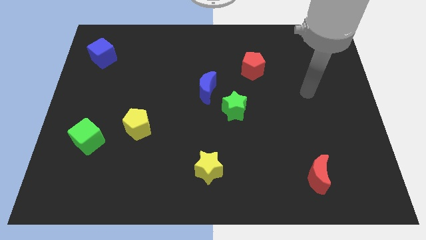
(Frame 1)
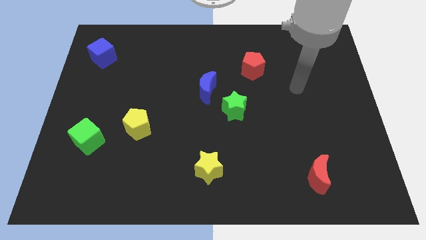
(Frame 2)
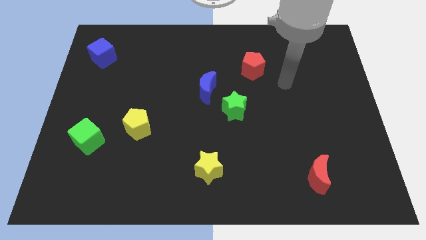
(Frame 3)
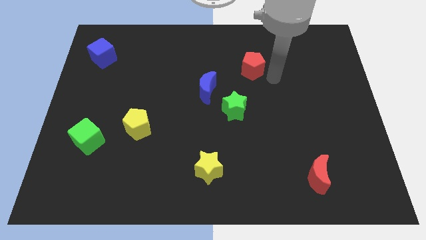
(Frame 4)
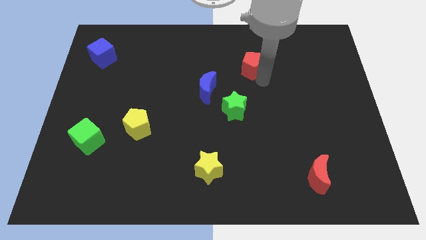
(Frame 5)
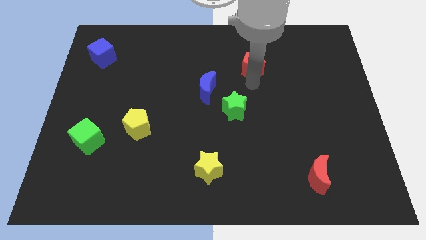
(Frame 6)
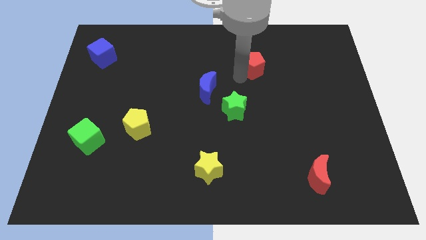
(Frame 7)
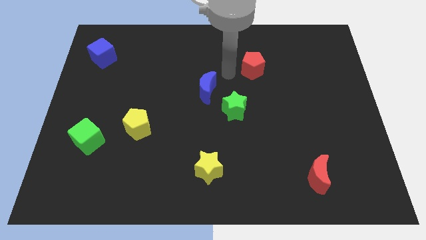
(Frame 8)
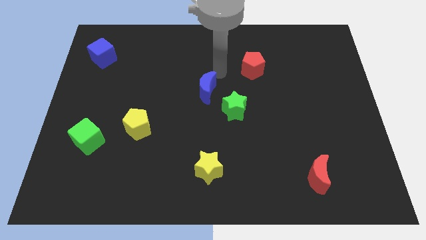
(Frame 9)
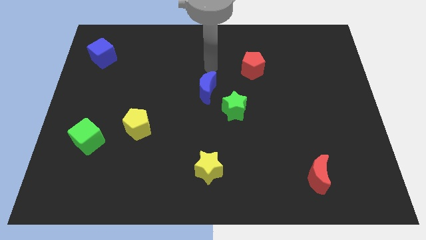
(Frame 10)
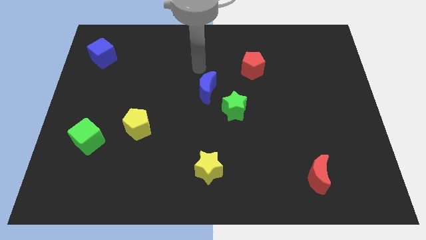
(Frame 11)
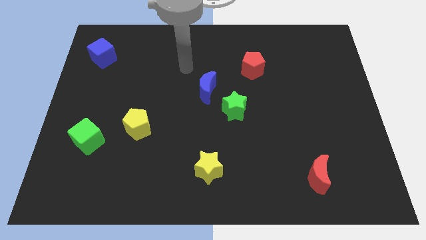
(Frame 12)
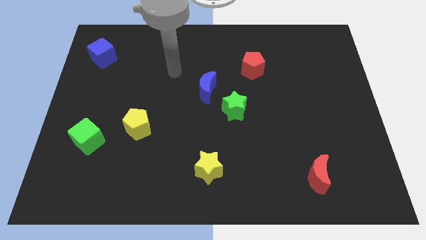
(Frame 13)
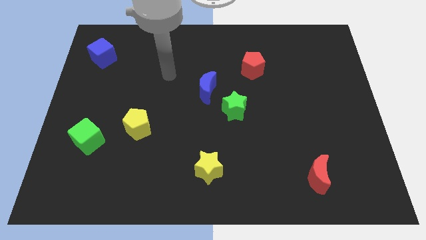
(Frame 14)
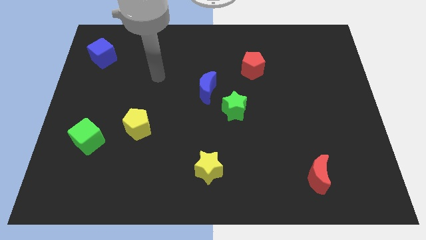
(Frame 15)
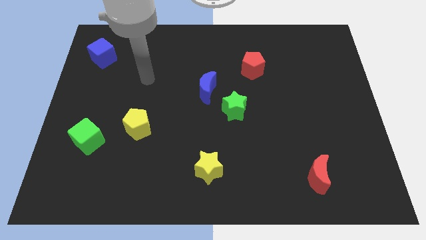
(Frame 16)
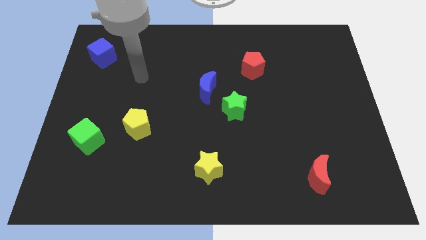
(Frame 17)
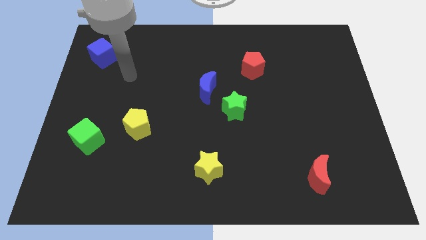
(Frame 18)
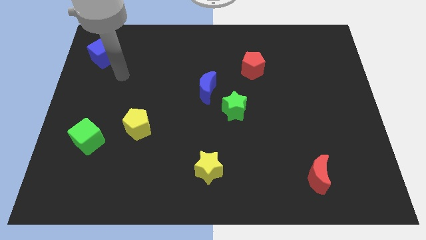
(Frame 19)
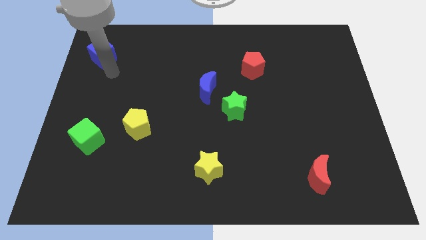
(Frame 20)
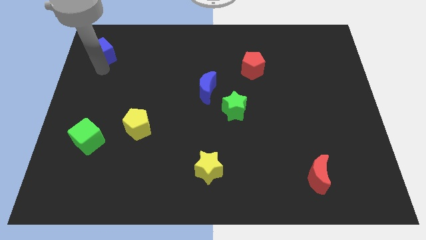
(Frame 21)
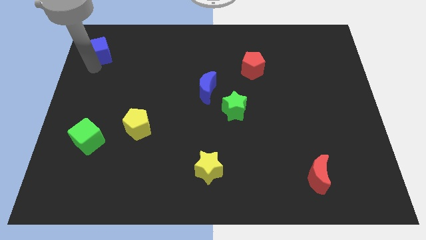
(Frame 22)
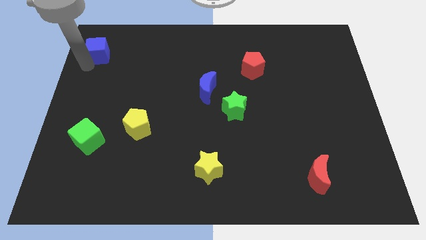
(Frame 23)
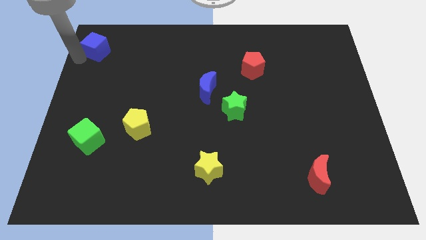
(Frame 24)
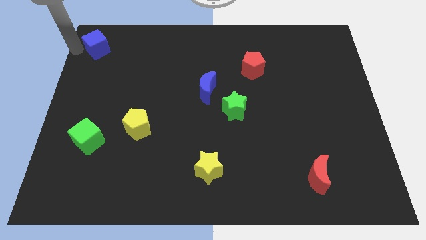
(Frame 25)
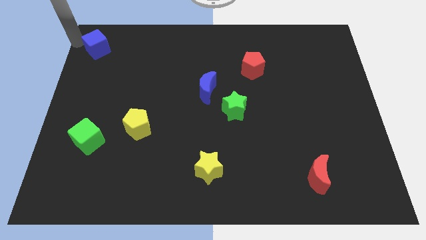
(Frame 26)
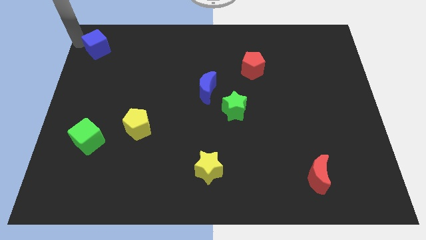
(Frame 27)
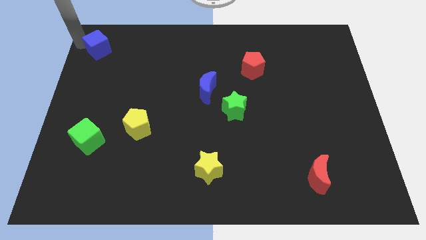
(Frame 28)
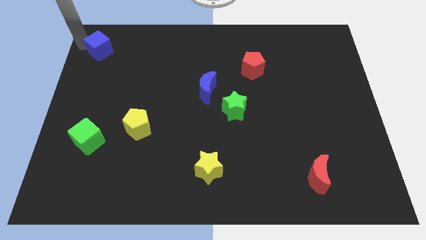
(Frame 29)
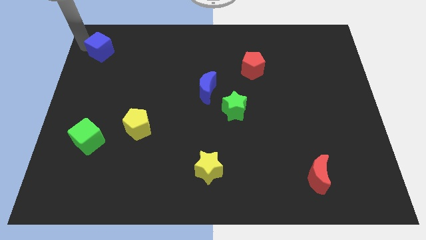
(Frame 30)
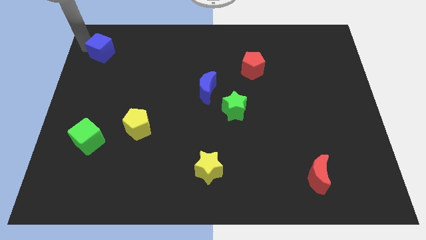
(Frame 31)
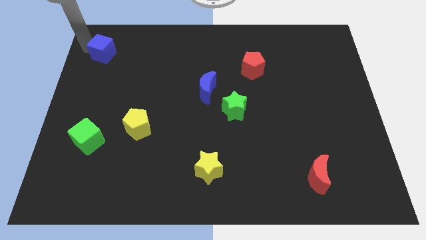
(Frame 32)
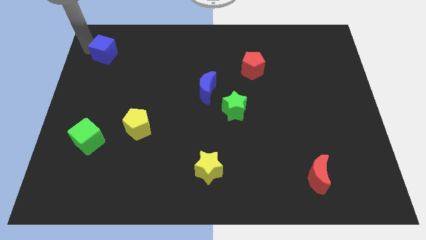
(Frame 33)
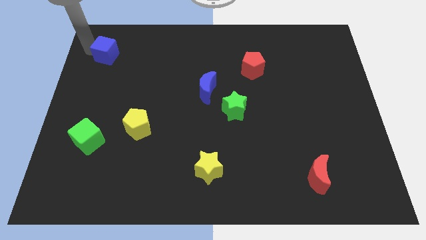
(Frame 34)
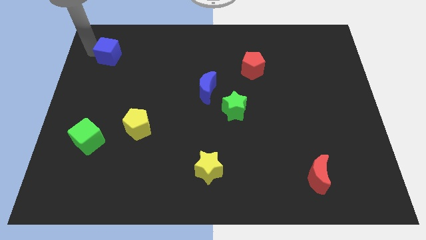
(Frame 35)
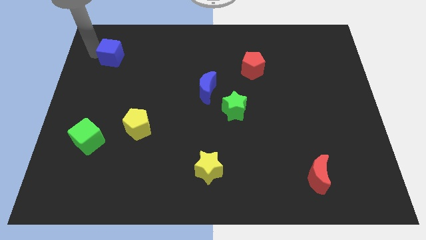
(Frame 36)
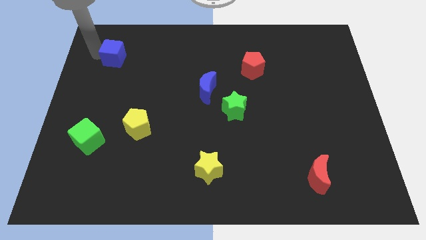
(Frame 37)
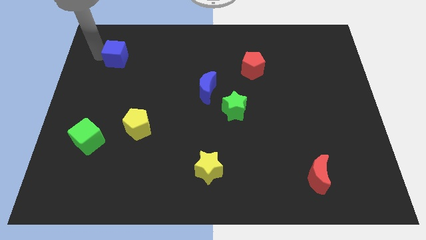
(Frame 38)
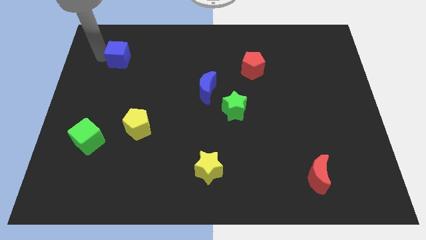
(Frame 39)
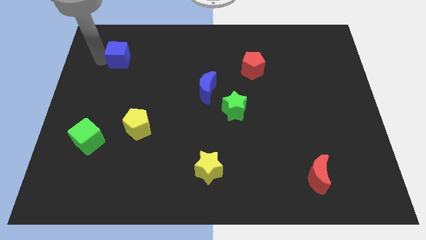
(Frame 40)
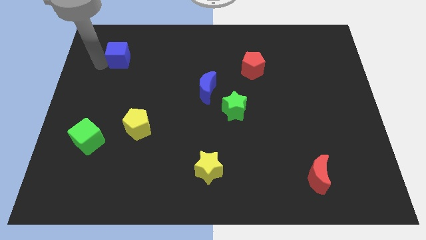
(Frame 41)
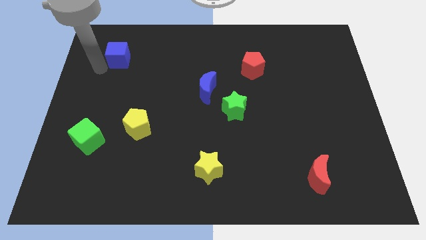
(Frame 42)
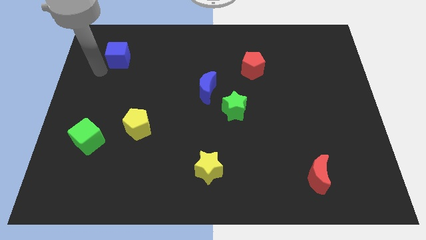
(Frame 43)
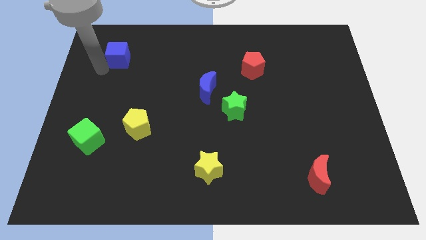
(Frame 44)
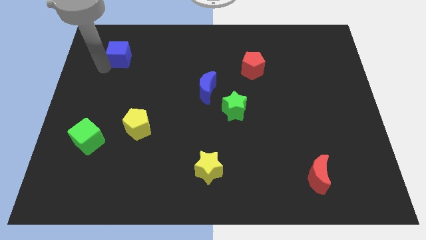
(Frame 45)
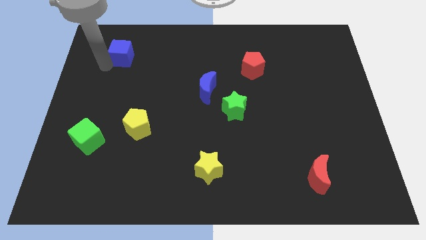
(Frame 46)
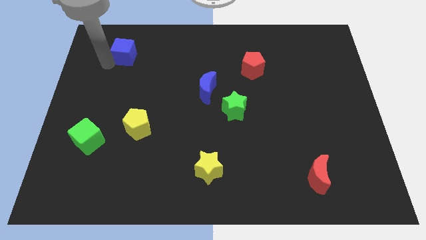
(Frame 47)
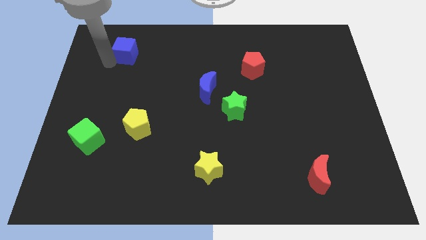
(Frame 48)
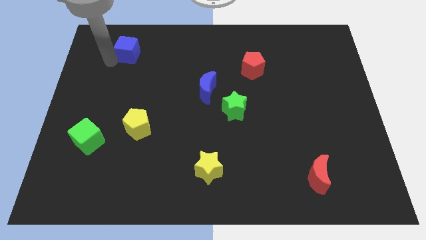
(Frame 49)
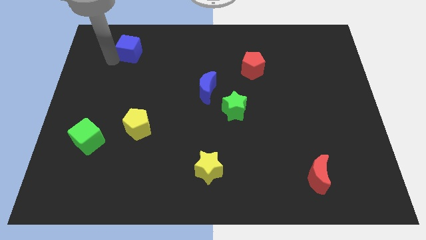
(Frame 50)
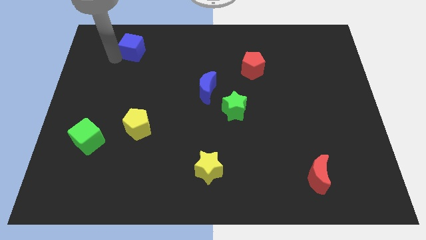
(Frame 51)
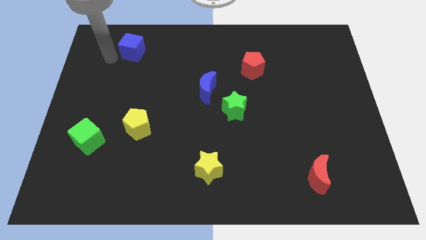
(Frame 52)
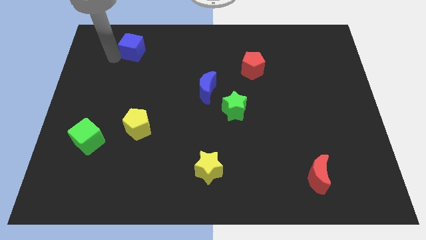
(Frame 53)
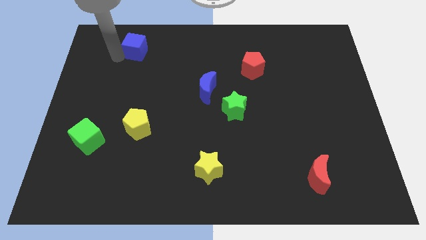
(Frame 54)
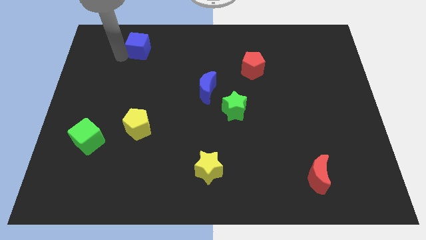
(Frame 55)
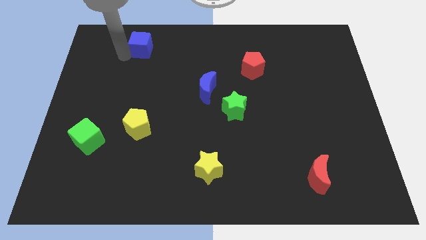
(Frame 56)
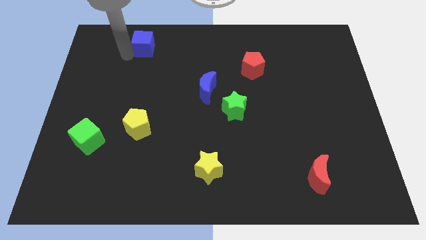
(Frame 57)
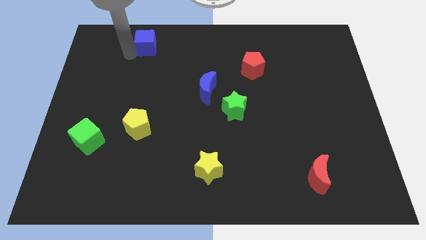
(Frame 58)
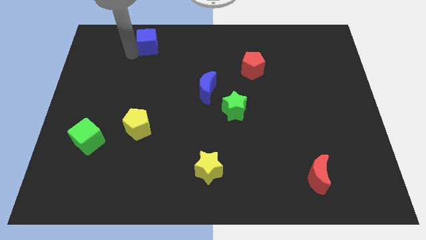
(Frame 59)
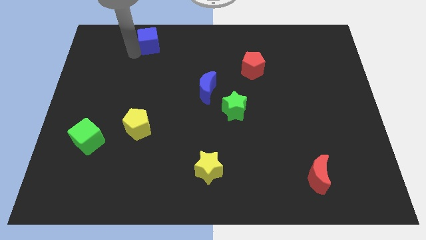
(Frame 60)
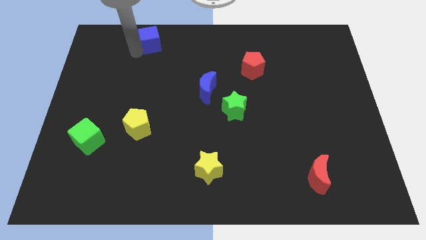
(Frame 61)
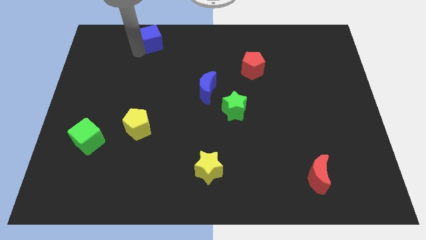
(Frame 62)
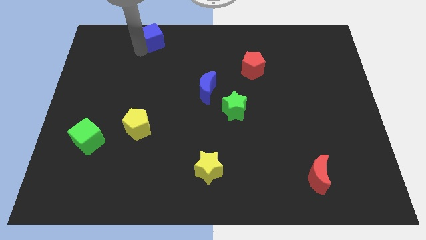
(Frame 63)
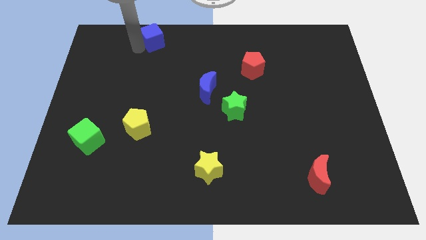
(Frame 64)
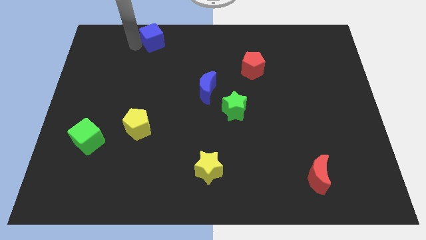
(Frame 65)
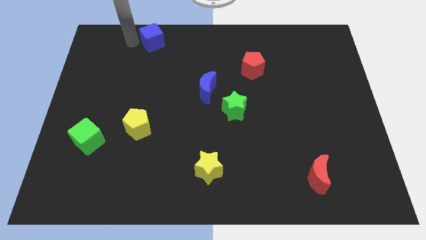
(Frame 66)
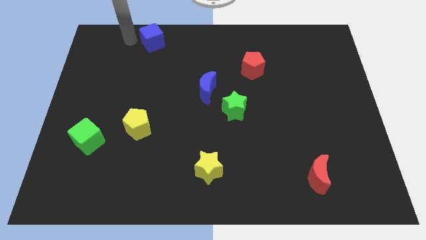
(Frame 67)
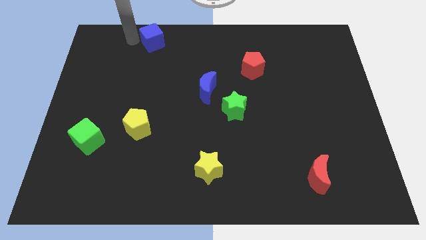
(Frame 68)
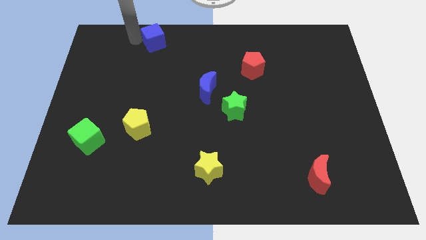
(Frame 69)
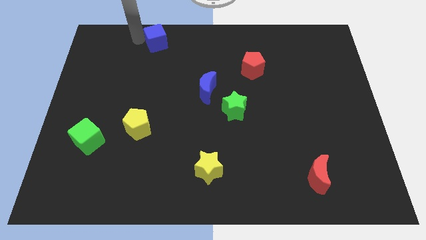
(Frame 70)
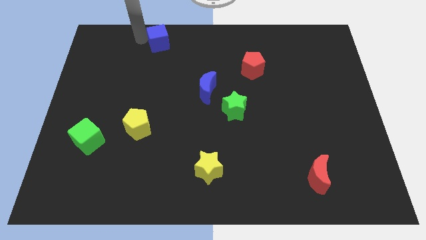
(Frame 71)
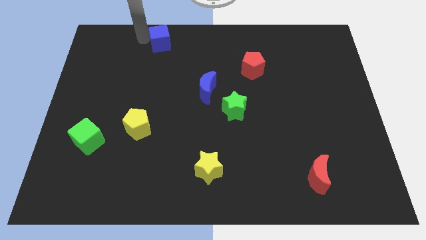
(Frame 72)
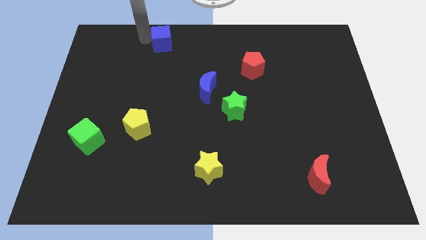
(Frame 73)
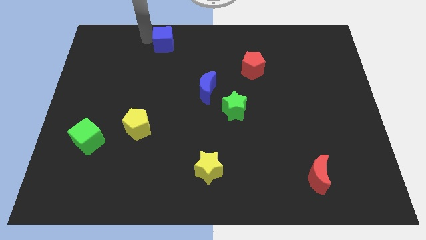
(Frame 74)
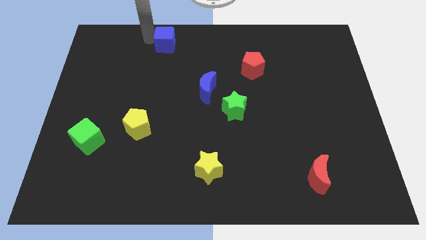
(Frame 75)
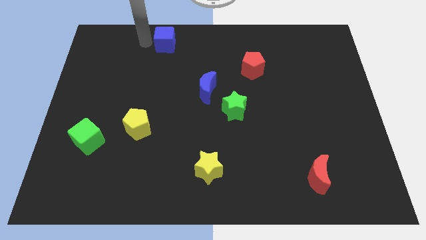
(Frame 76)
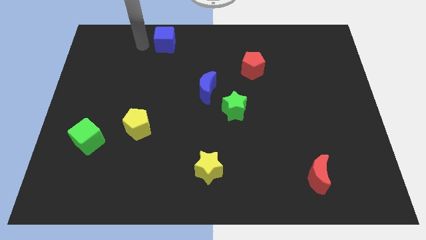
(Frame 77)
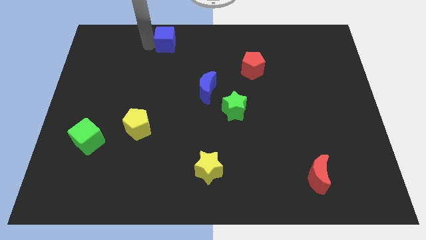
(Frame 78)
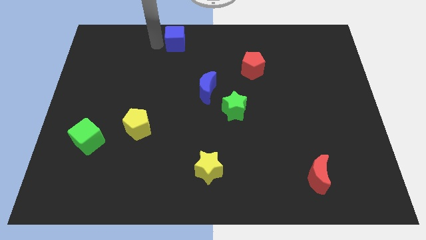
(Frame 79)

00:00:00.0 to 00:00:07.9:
move the blue cube to the top
